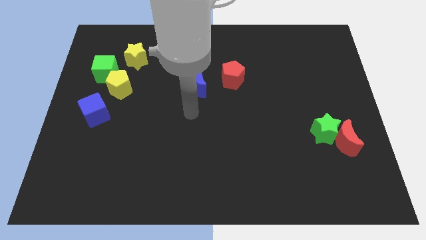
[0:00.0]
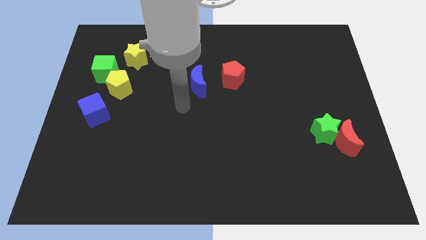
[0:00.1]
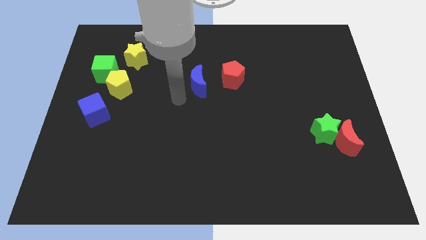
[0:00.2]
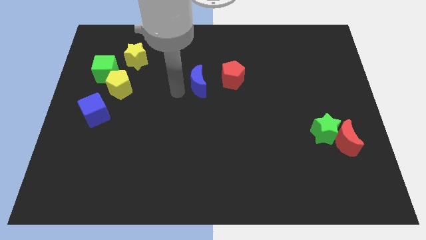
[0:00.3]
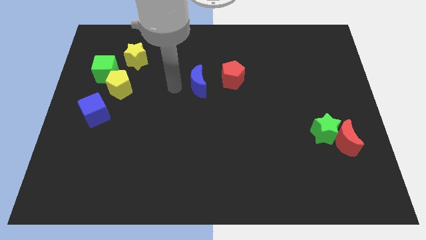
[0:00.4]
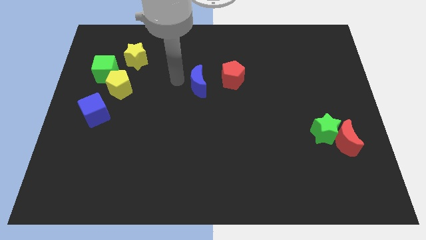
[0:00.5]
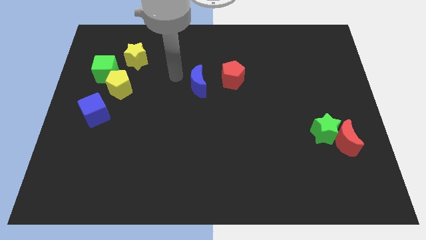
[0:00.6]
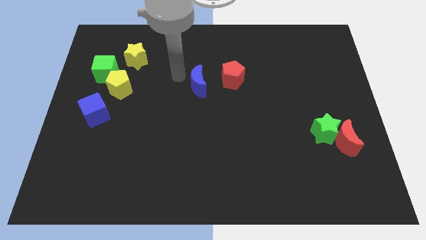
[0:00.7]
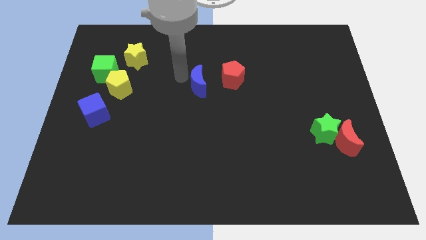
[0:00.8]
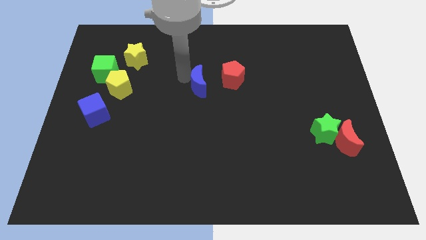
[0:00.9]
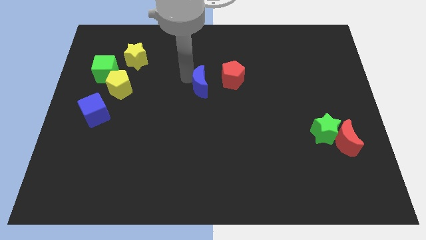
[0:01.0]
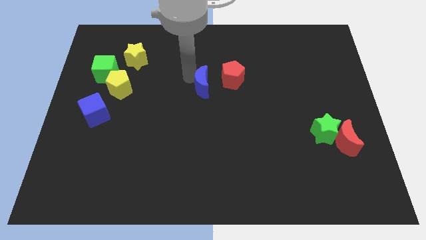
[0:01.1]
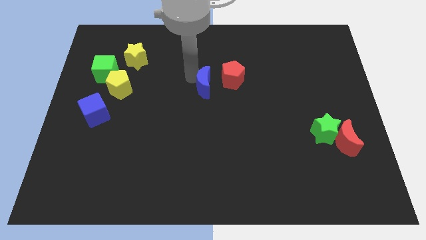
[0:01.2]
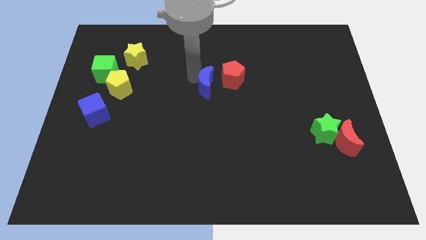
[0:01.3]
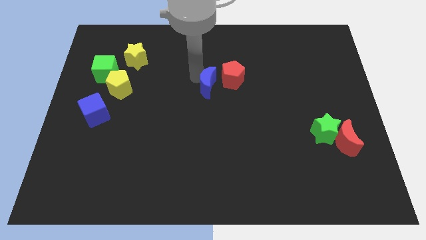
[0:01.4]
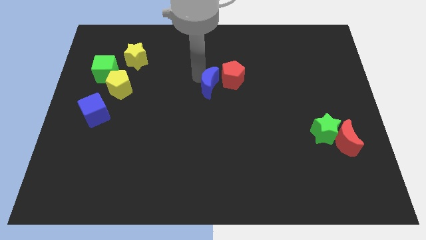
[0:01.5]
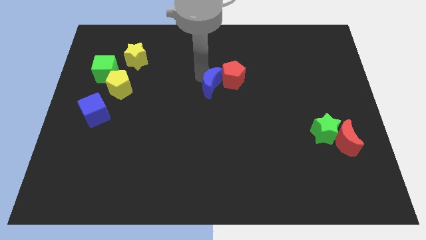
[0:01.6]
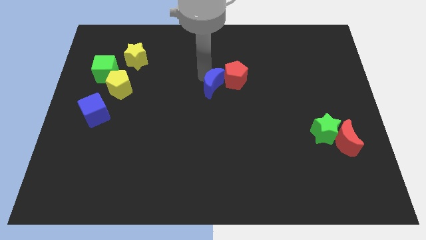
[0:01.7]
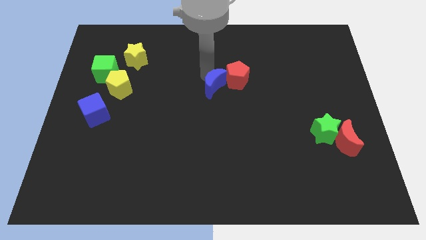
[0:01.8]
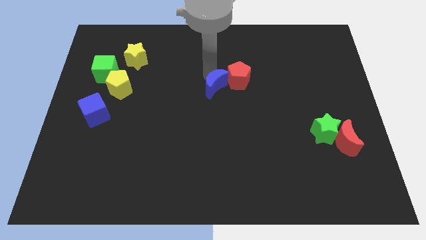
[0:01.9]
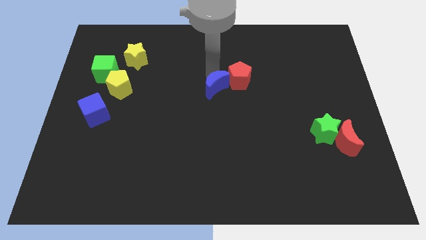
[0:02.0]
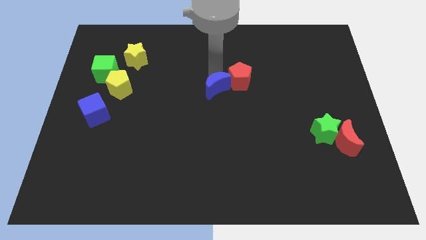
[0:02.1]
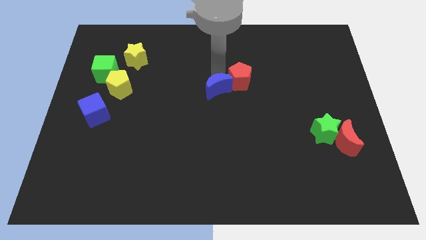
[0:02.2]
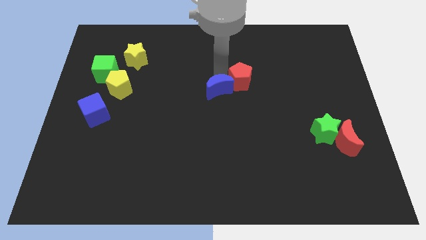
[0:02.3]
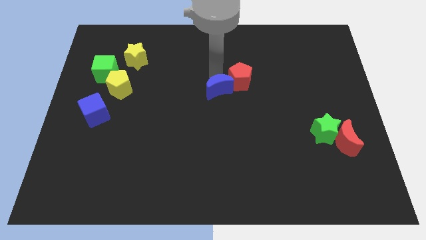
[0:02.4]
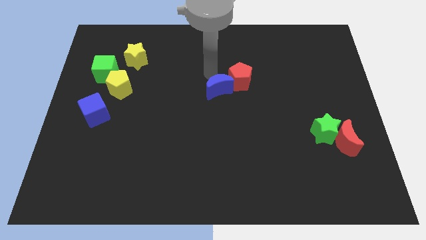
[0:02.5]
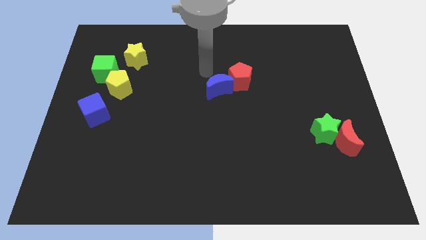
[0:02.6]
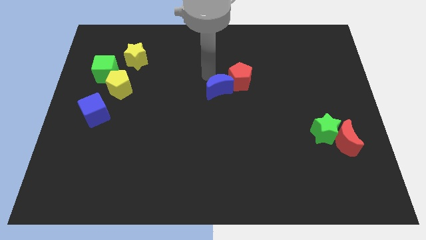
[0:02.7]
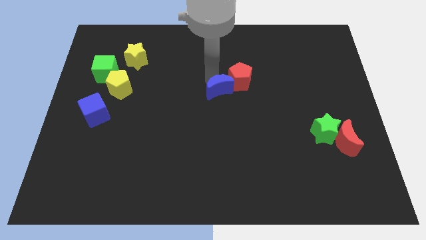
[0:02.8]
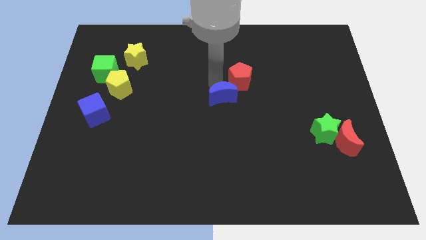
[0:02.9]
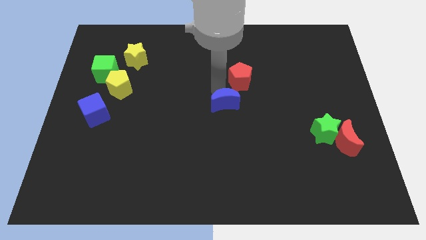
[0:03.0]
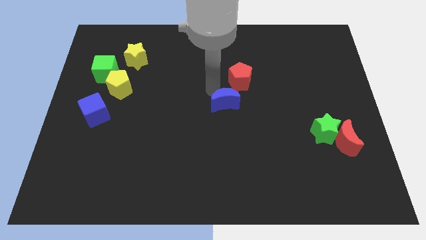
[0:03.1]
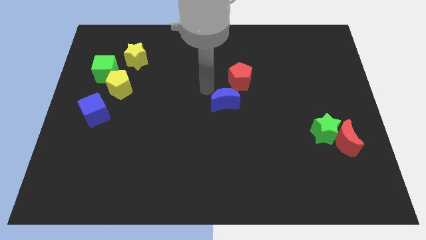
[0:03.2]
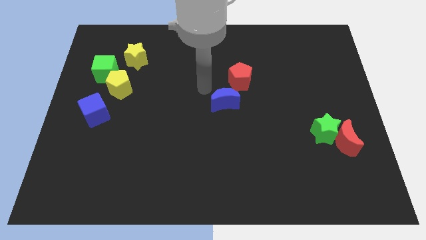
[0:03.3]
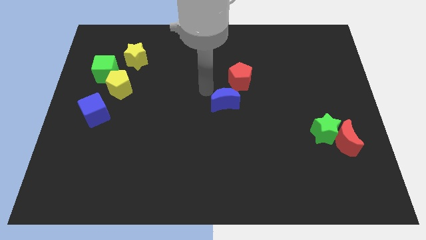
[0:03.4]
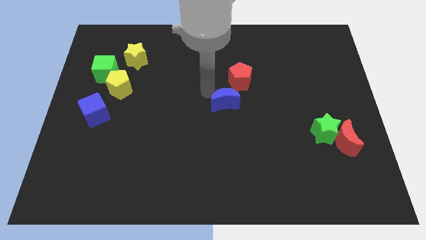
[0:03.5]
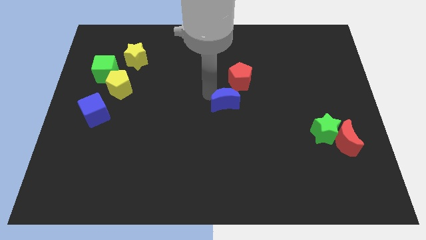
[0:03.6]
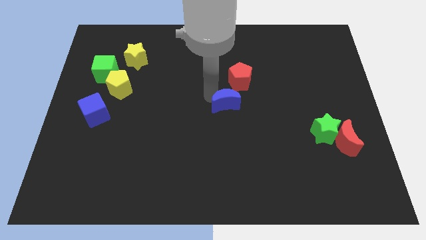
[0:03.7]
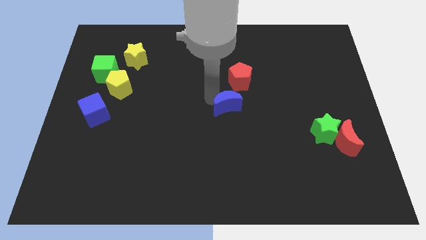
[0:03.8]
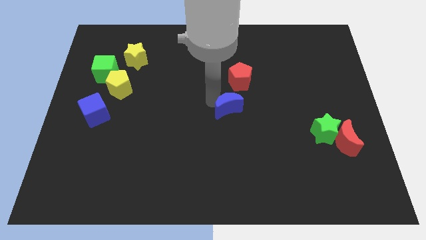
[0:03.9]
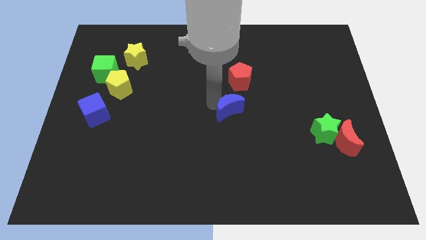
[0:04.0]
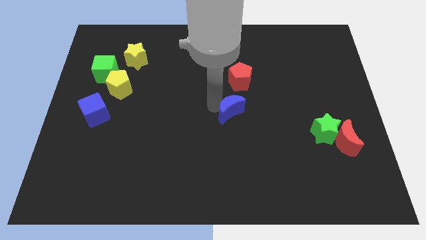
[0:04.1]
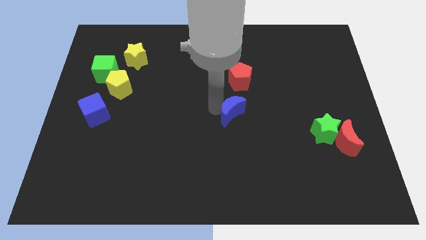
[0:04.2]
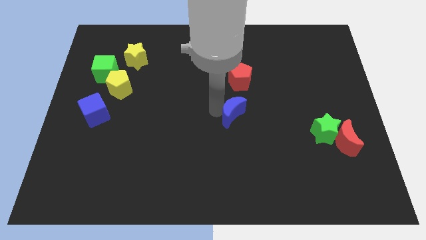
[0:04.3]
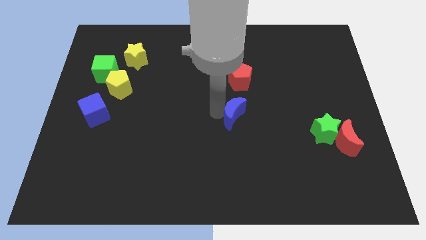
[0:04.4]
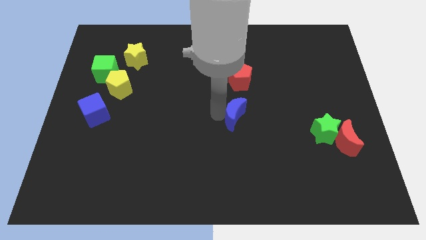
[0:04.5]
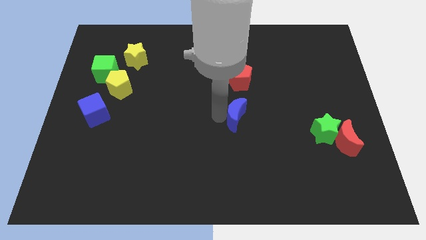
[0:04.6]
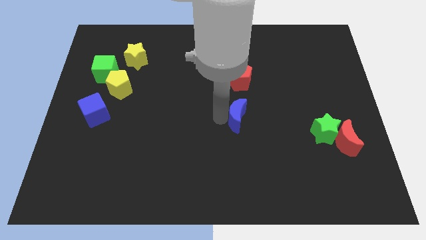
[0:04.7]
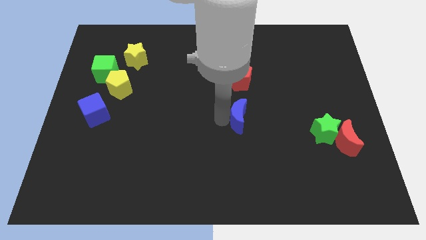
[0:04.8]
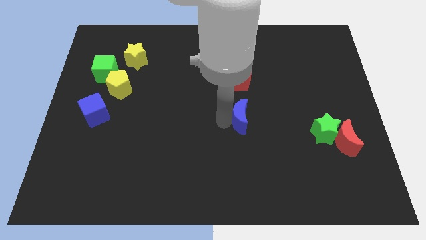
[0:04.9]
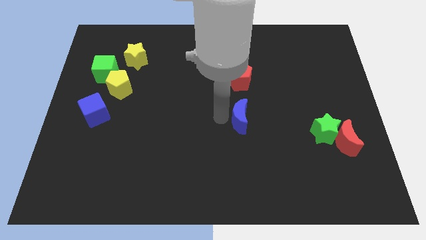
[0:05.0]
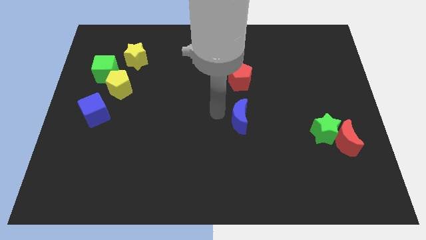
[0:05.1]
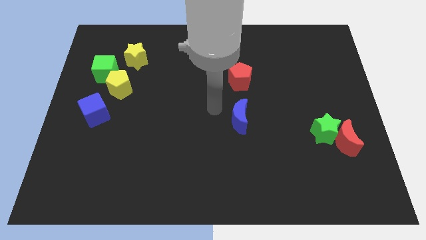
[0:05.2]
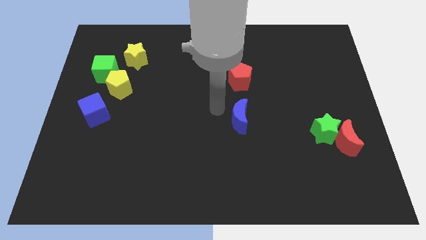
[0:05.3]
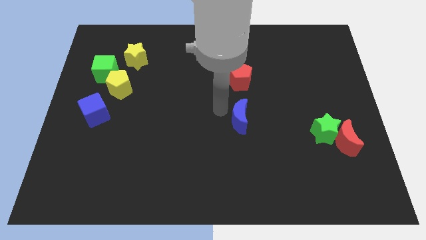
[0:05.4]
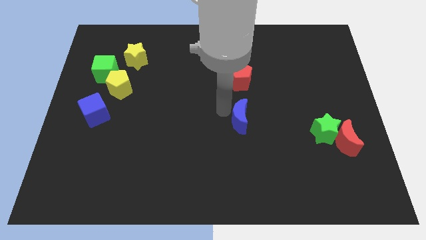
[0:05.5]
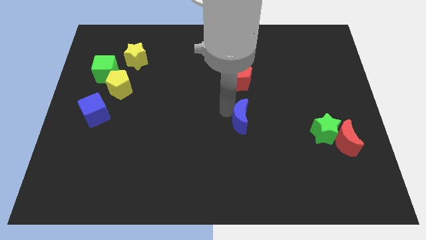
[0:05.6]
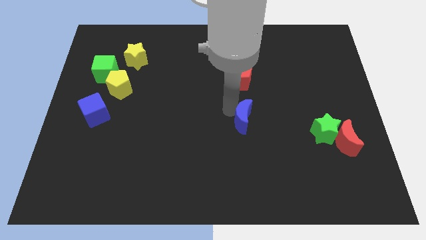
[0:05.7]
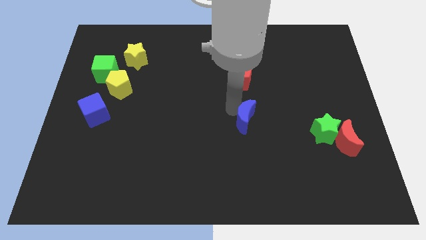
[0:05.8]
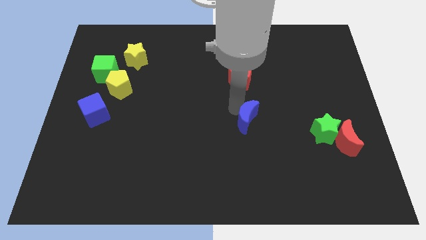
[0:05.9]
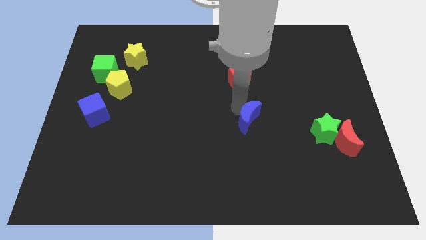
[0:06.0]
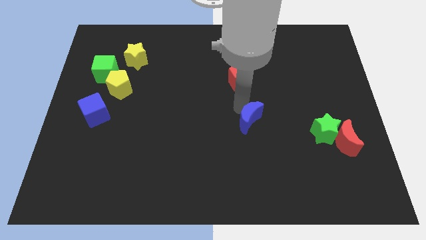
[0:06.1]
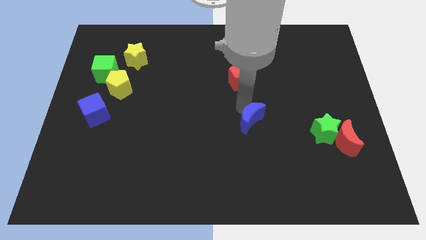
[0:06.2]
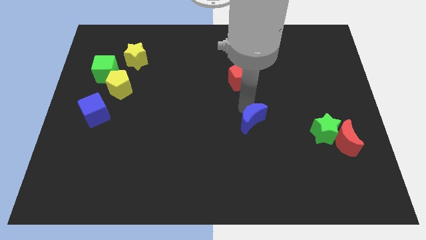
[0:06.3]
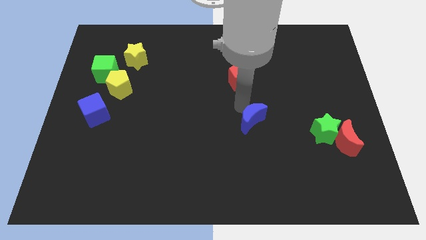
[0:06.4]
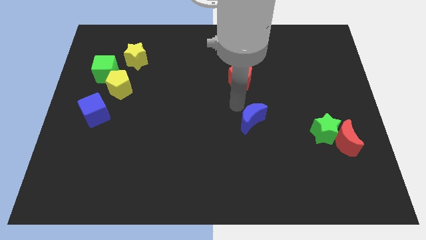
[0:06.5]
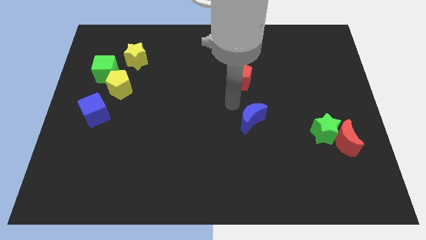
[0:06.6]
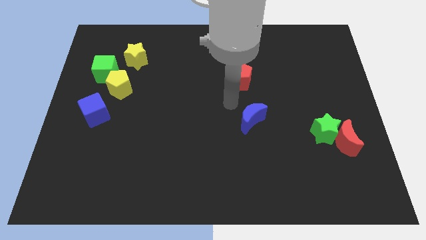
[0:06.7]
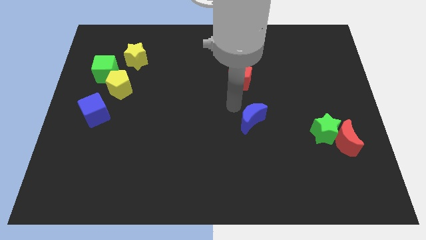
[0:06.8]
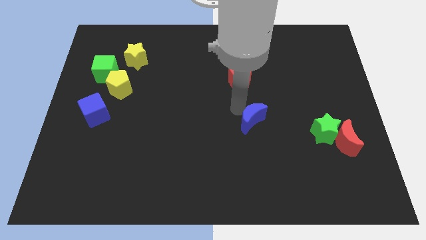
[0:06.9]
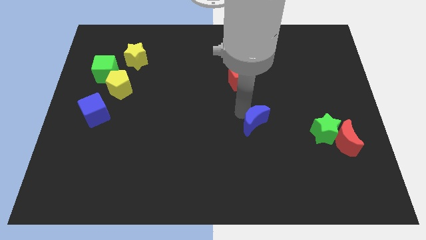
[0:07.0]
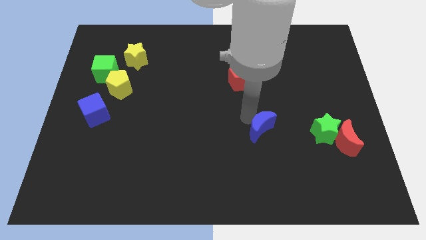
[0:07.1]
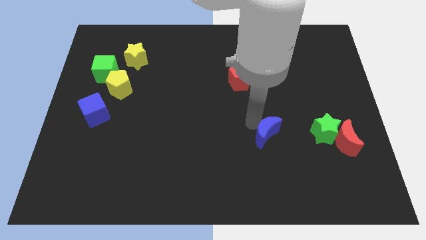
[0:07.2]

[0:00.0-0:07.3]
push the blue moon down and then to the right
